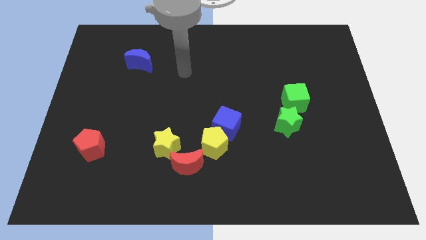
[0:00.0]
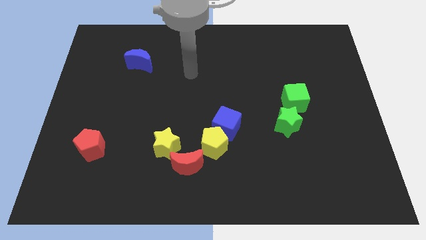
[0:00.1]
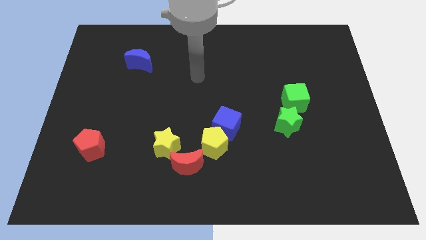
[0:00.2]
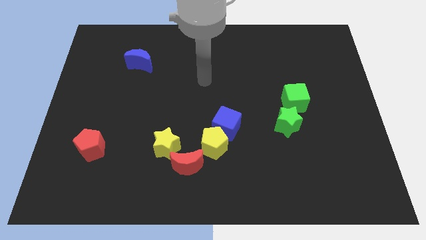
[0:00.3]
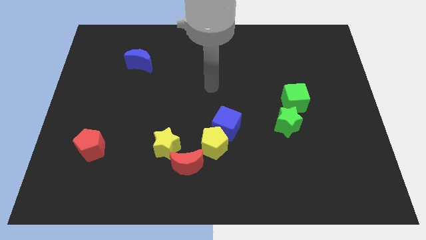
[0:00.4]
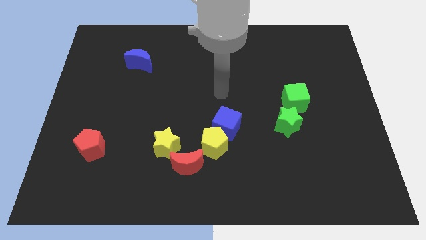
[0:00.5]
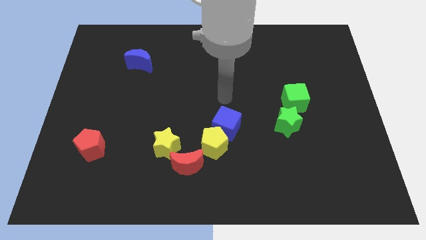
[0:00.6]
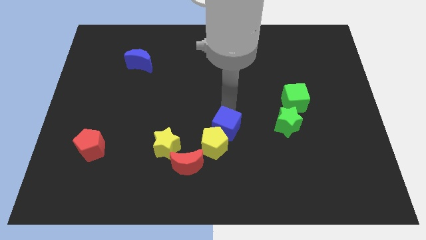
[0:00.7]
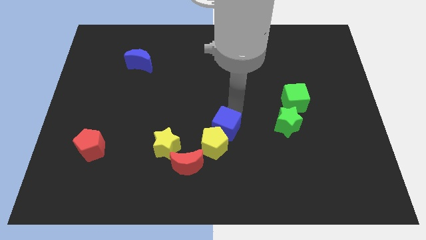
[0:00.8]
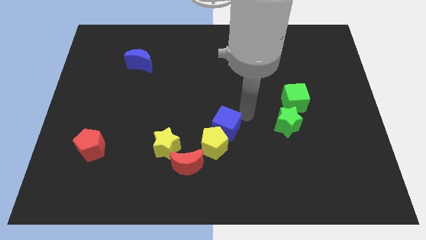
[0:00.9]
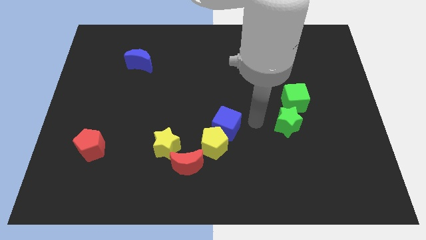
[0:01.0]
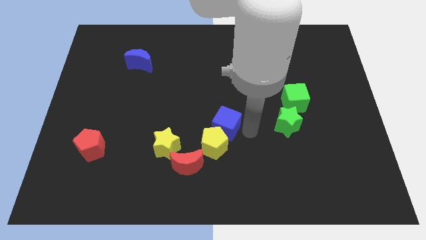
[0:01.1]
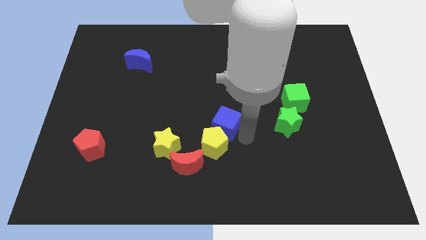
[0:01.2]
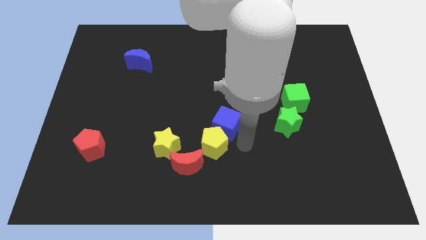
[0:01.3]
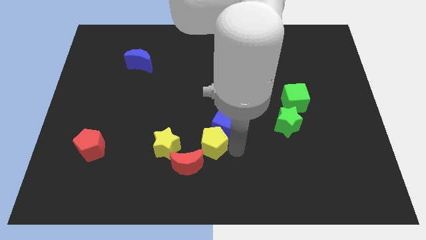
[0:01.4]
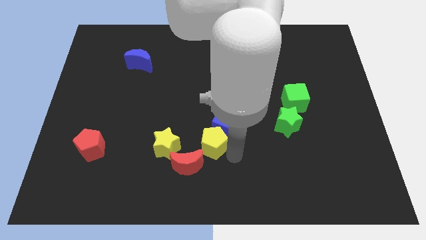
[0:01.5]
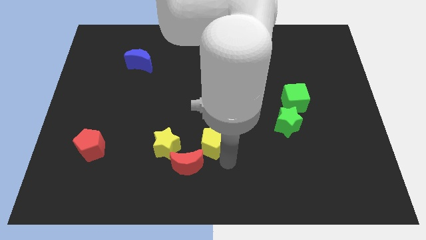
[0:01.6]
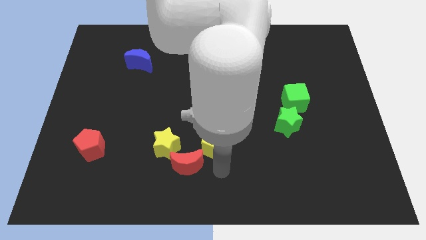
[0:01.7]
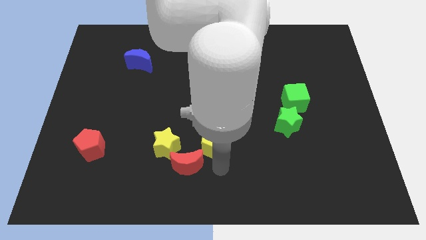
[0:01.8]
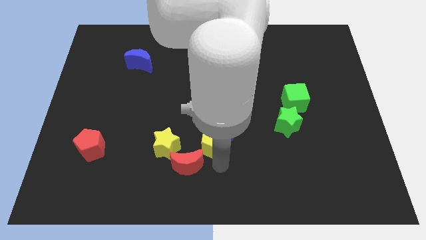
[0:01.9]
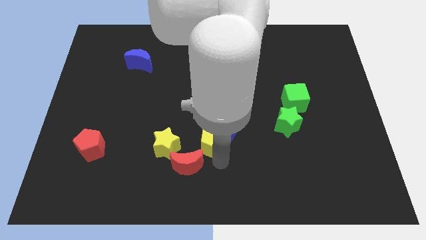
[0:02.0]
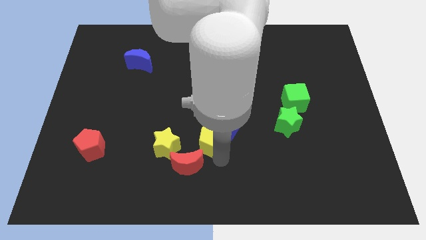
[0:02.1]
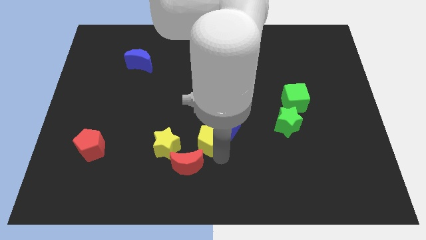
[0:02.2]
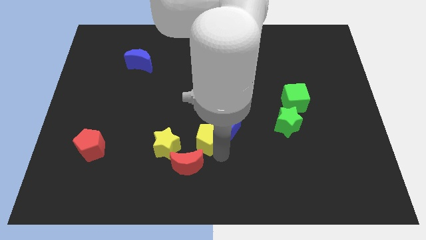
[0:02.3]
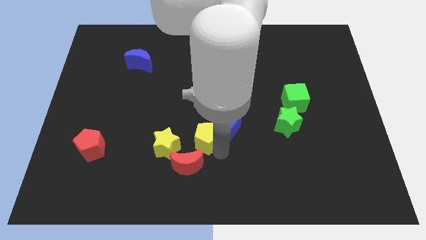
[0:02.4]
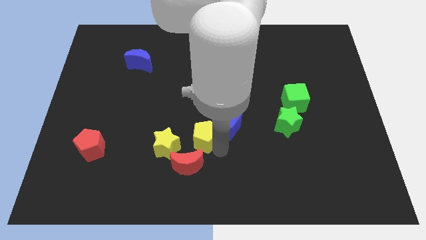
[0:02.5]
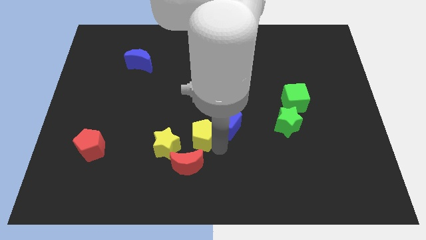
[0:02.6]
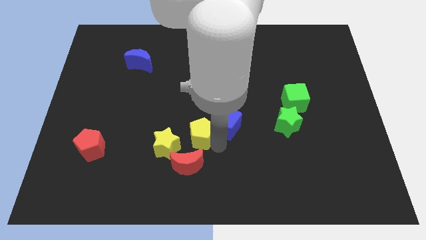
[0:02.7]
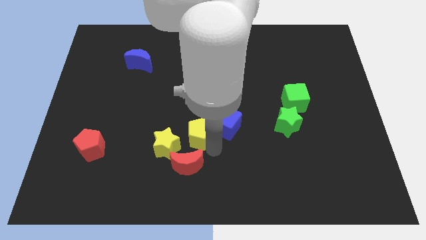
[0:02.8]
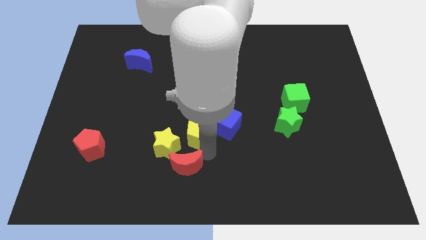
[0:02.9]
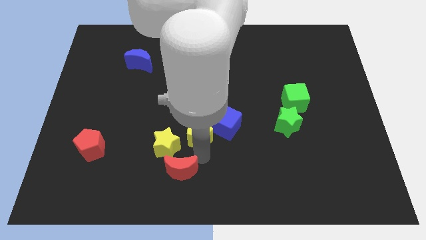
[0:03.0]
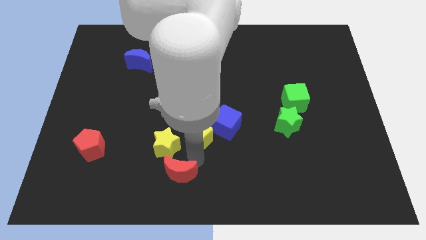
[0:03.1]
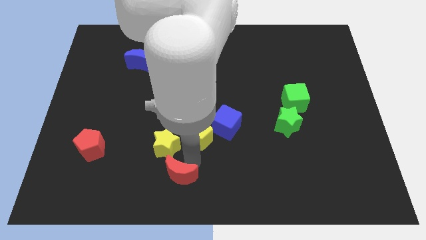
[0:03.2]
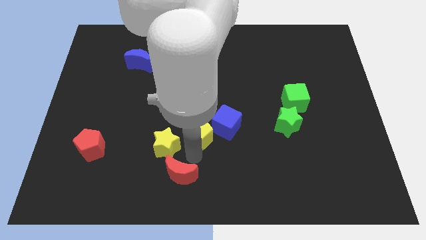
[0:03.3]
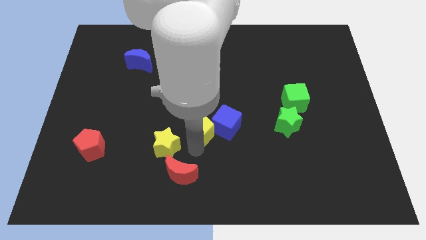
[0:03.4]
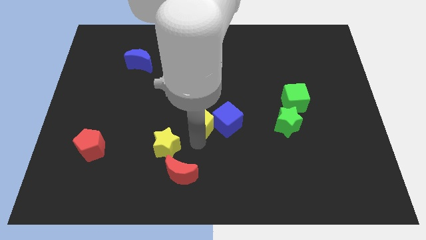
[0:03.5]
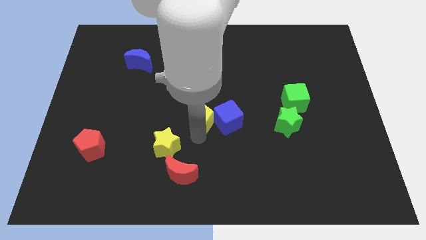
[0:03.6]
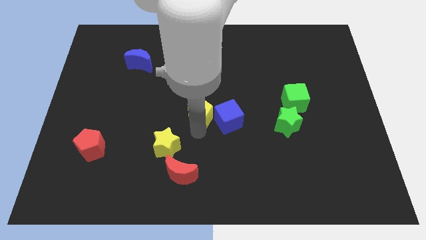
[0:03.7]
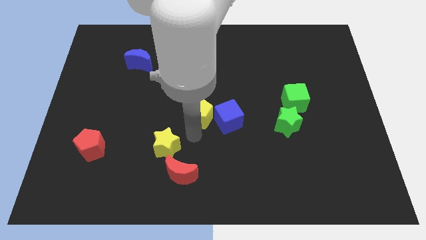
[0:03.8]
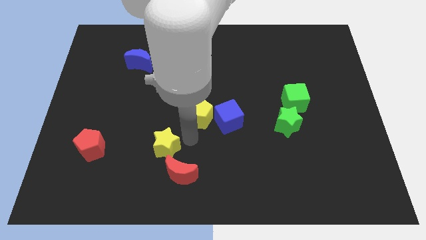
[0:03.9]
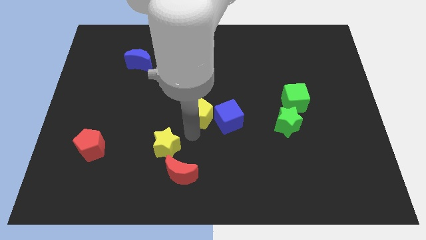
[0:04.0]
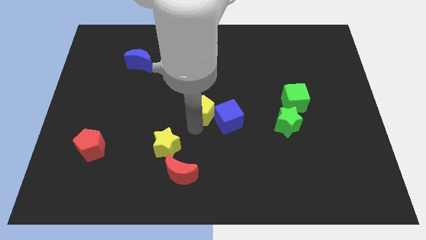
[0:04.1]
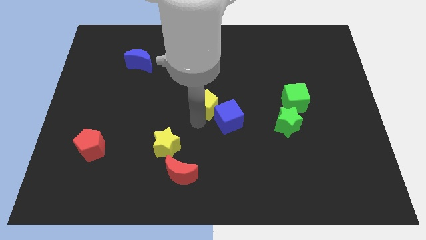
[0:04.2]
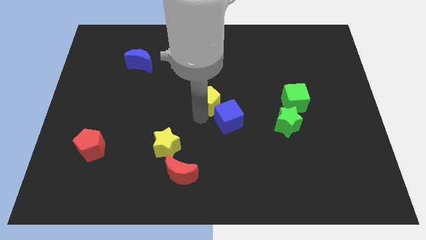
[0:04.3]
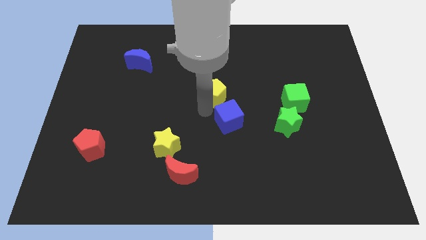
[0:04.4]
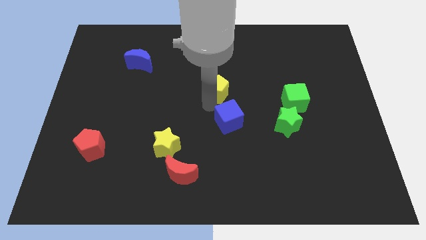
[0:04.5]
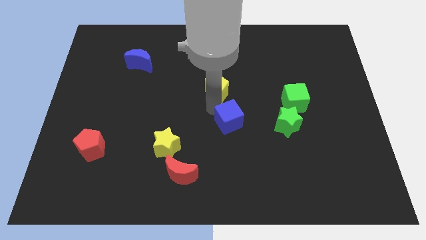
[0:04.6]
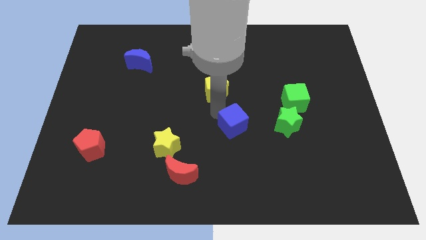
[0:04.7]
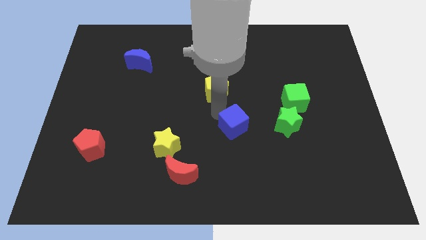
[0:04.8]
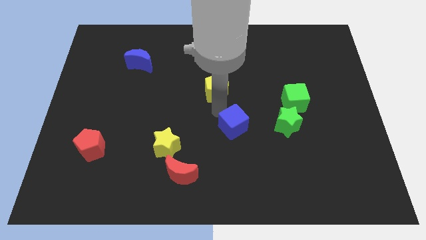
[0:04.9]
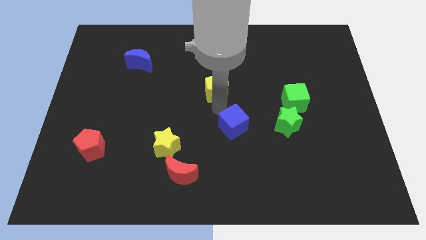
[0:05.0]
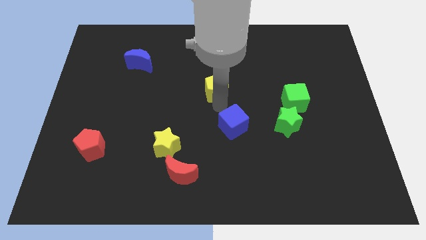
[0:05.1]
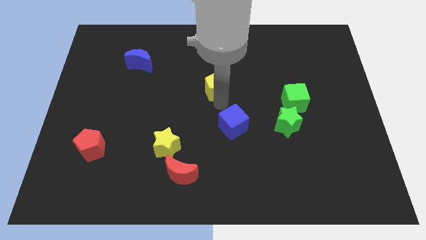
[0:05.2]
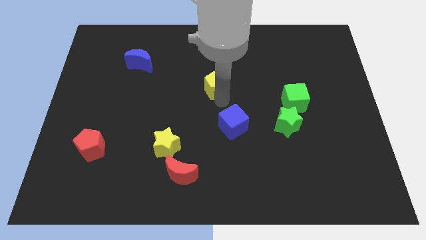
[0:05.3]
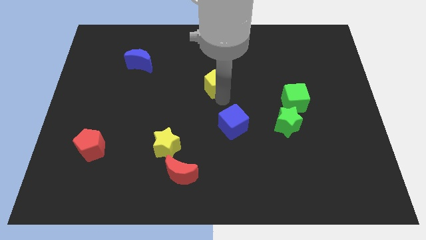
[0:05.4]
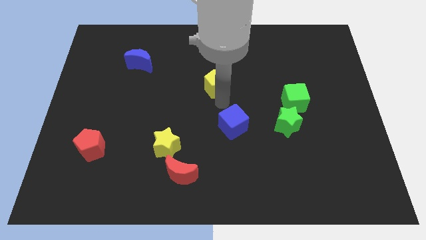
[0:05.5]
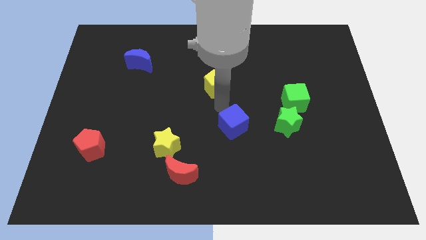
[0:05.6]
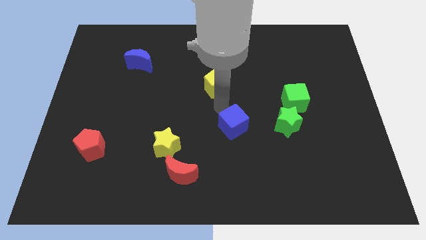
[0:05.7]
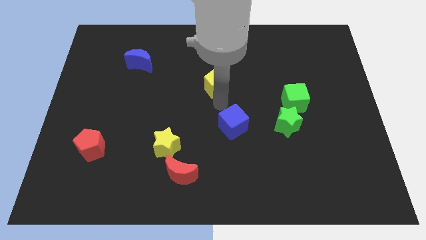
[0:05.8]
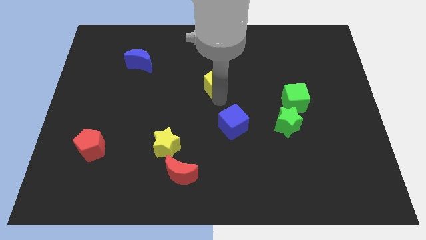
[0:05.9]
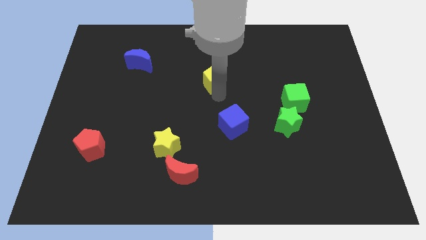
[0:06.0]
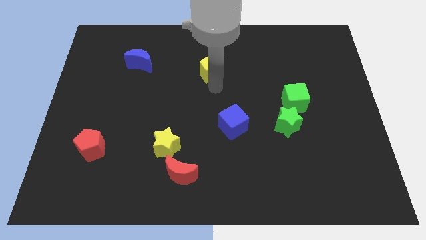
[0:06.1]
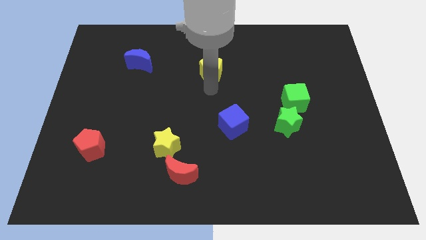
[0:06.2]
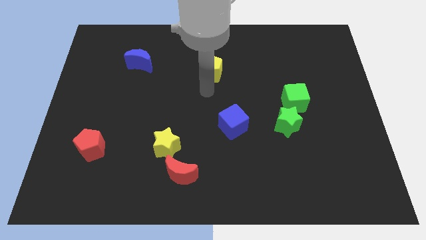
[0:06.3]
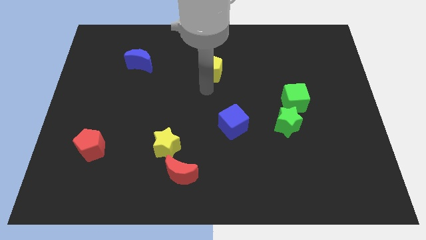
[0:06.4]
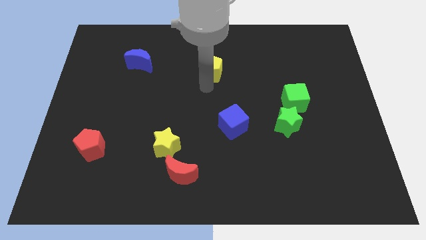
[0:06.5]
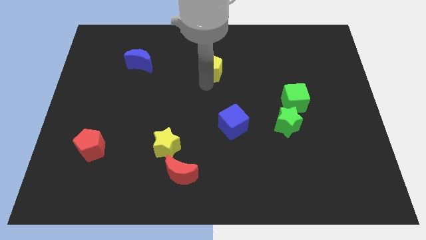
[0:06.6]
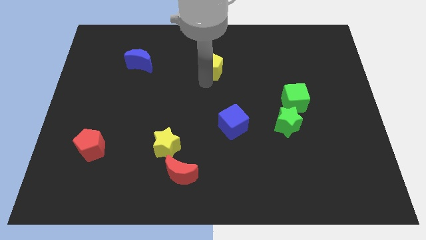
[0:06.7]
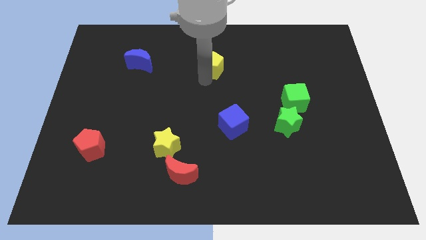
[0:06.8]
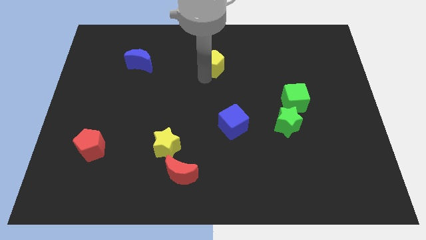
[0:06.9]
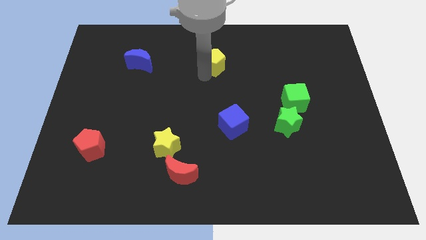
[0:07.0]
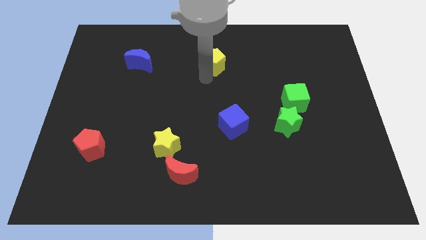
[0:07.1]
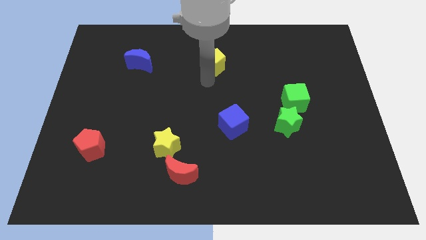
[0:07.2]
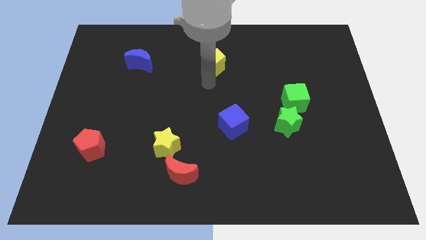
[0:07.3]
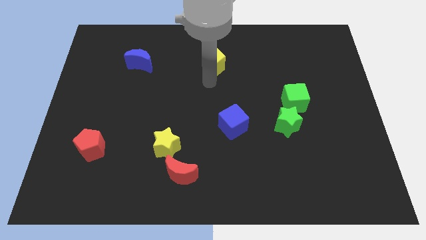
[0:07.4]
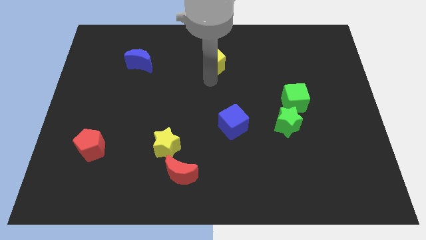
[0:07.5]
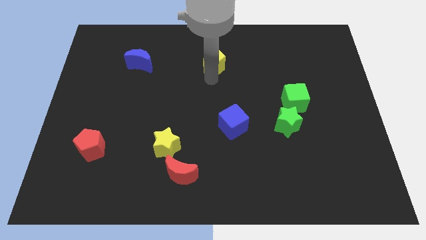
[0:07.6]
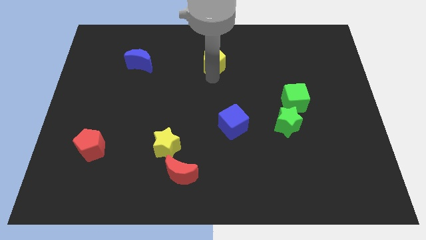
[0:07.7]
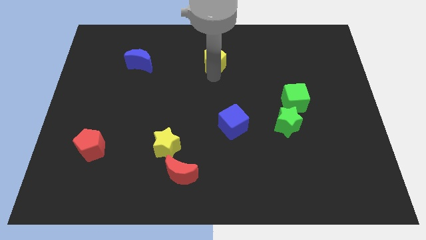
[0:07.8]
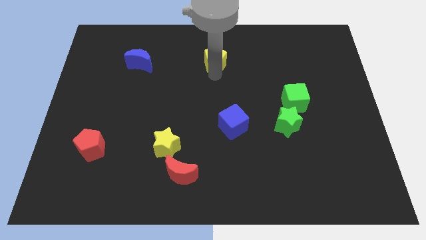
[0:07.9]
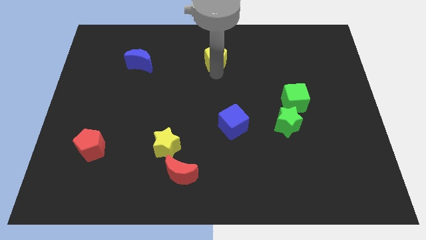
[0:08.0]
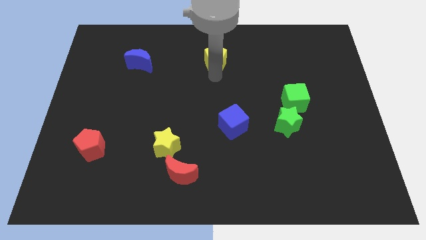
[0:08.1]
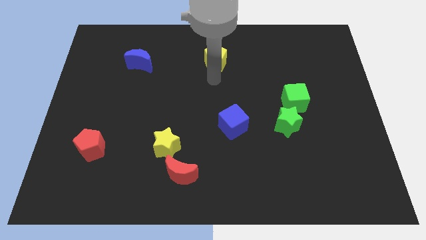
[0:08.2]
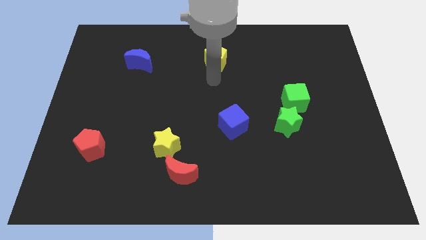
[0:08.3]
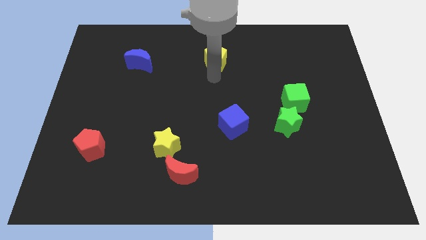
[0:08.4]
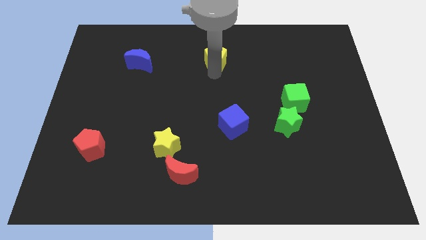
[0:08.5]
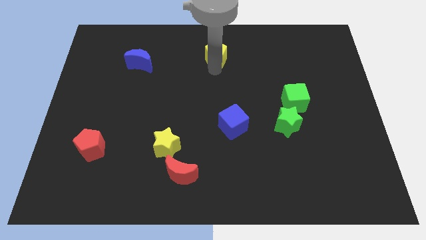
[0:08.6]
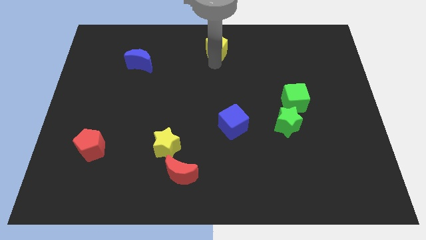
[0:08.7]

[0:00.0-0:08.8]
push the yellow pentagon to the top
